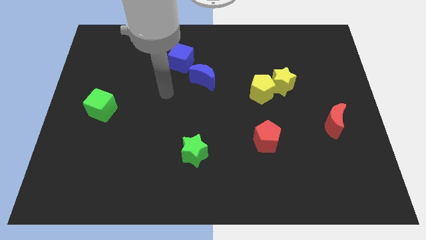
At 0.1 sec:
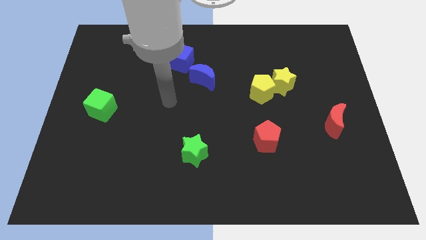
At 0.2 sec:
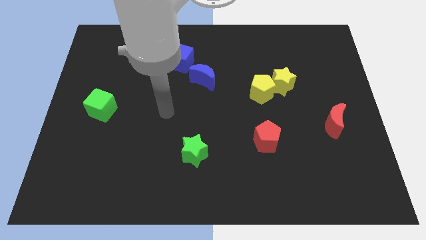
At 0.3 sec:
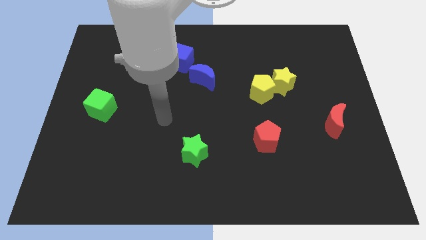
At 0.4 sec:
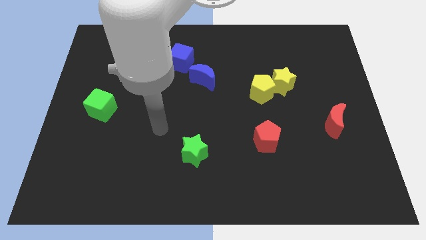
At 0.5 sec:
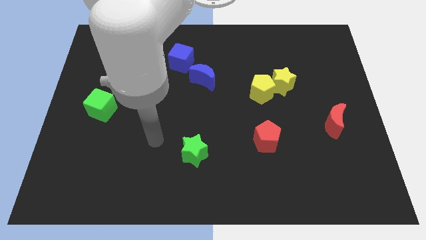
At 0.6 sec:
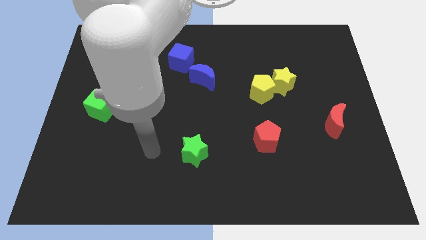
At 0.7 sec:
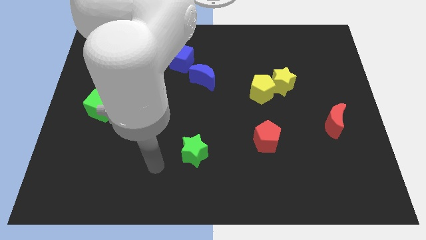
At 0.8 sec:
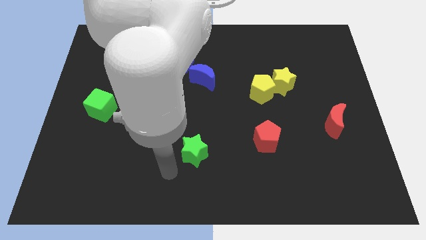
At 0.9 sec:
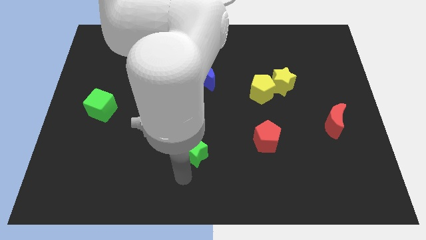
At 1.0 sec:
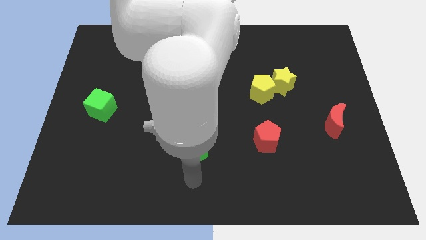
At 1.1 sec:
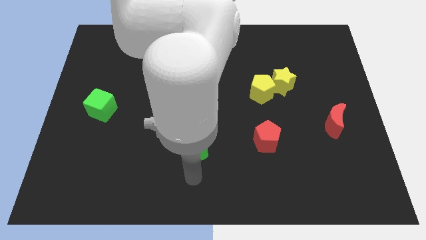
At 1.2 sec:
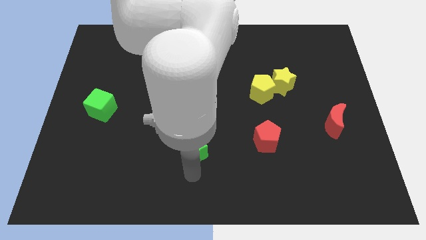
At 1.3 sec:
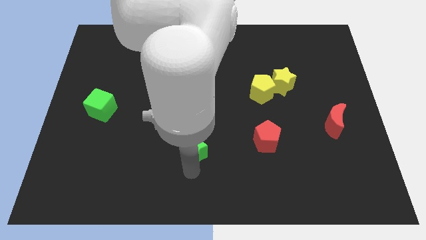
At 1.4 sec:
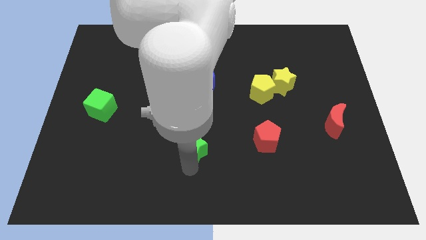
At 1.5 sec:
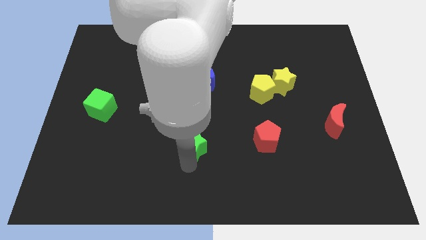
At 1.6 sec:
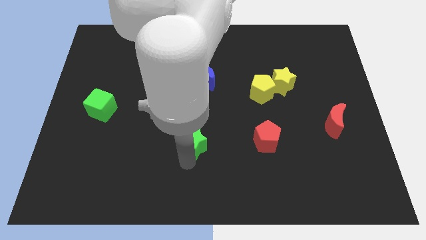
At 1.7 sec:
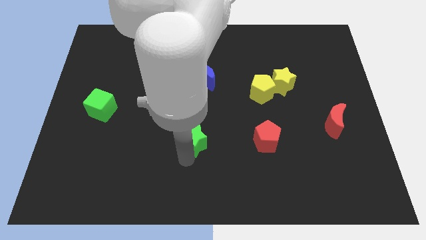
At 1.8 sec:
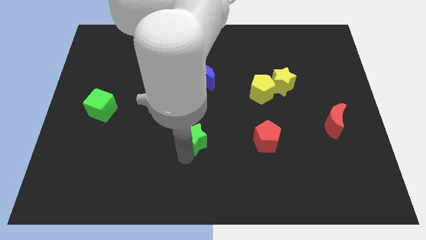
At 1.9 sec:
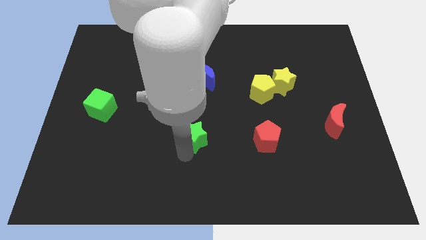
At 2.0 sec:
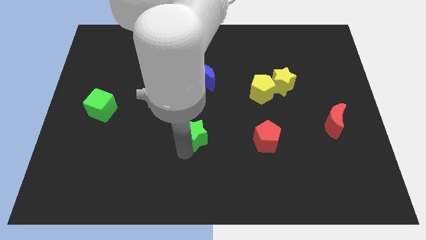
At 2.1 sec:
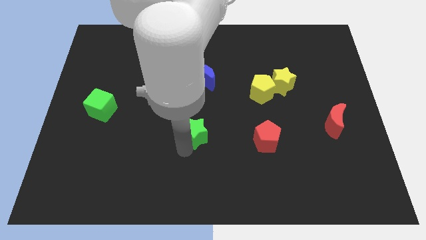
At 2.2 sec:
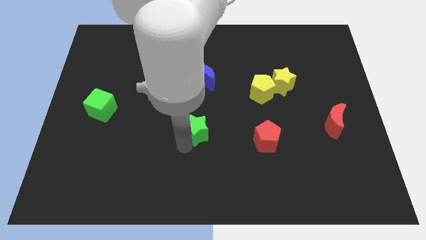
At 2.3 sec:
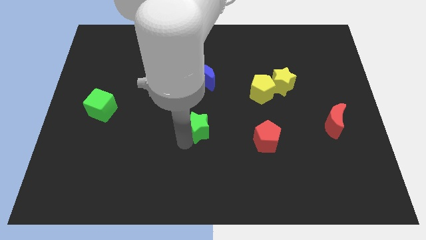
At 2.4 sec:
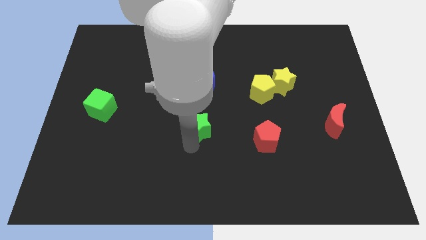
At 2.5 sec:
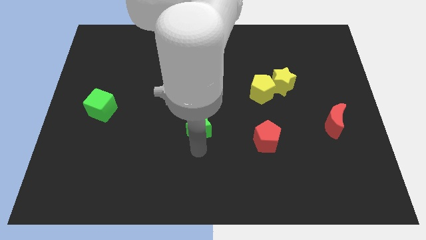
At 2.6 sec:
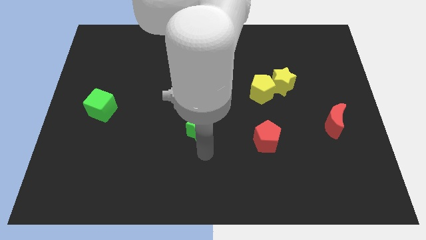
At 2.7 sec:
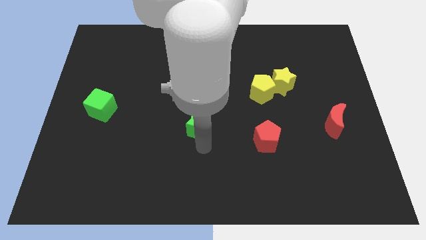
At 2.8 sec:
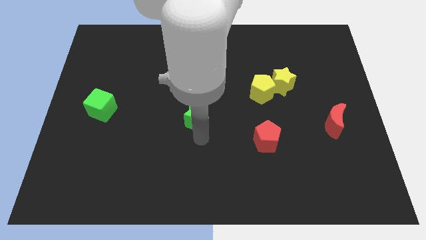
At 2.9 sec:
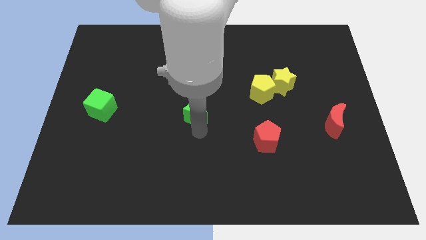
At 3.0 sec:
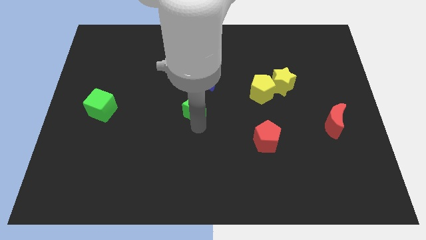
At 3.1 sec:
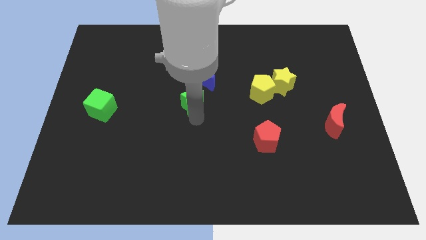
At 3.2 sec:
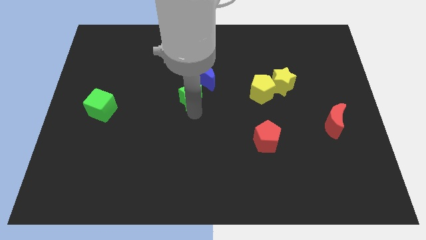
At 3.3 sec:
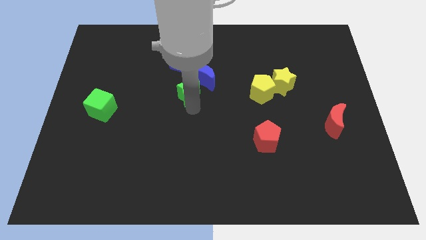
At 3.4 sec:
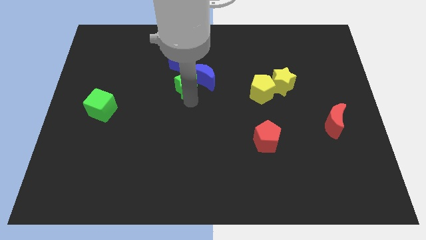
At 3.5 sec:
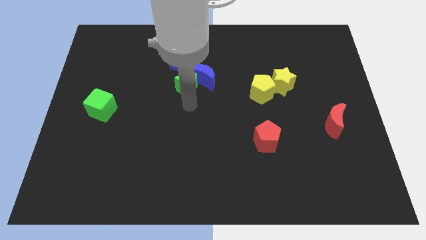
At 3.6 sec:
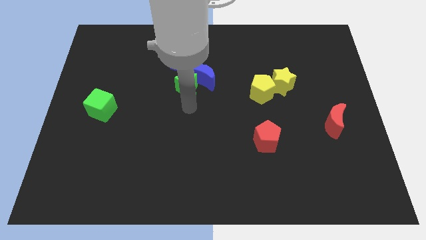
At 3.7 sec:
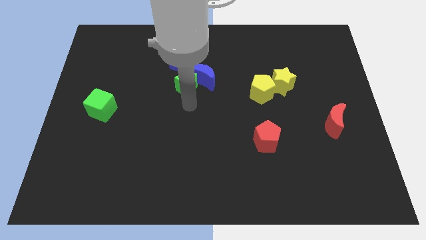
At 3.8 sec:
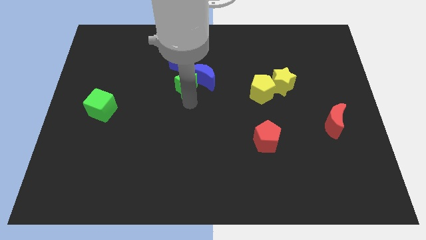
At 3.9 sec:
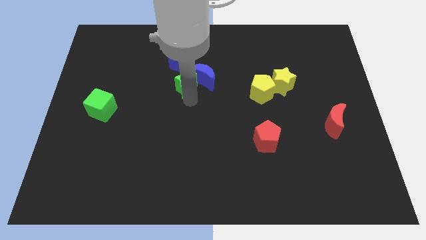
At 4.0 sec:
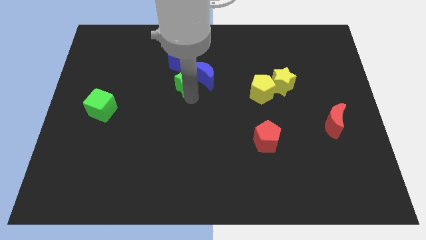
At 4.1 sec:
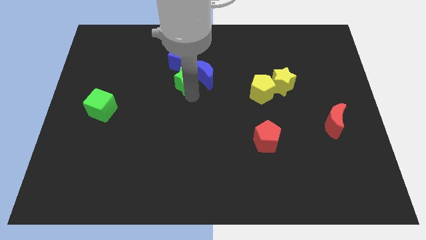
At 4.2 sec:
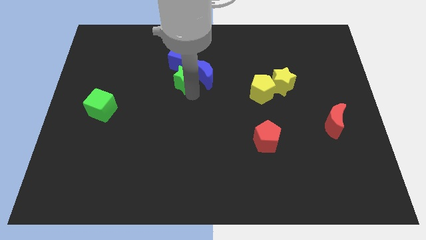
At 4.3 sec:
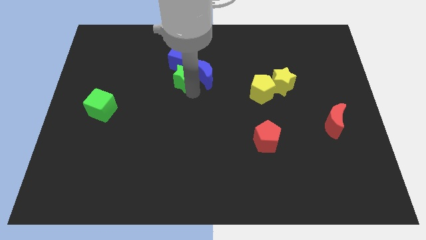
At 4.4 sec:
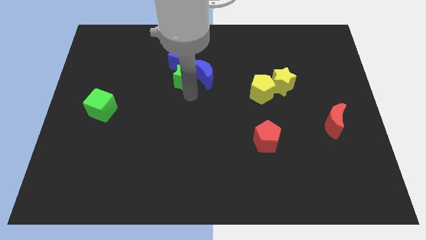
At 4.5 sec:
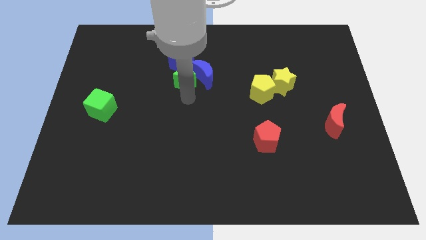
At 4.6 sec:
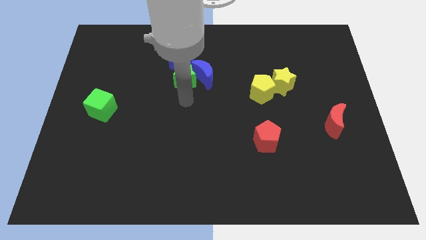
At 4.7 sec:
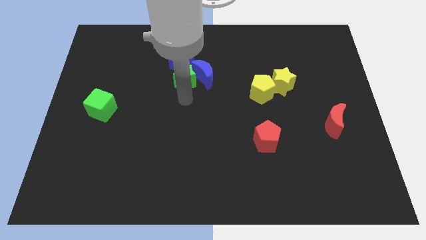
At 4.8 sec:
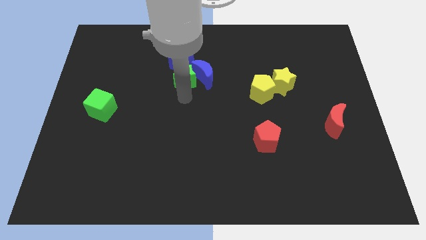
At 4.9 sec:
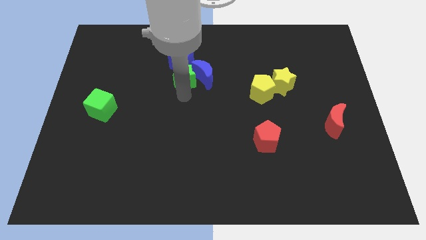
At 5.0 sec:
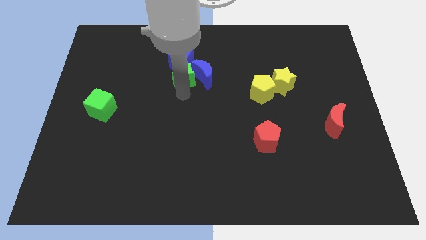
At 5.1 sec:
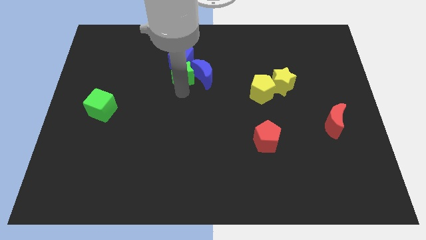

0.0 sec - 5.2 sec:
put the green star towards the blue cube

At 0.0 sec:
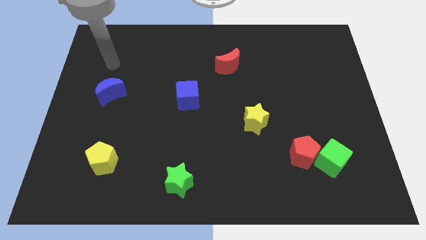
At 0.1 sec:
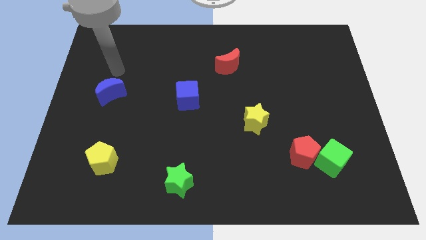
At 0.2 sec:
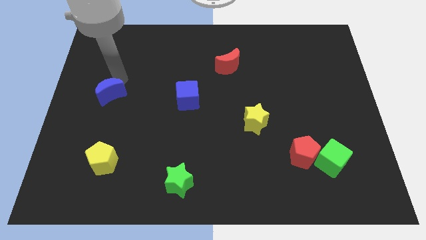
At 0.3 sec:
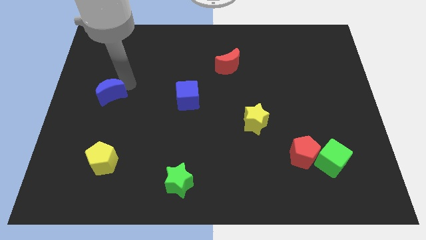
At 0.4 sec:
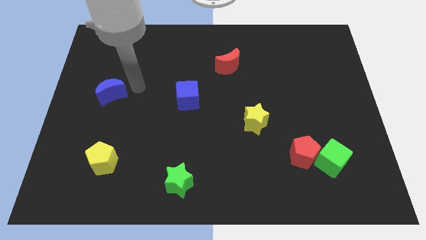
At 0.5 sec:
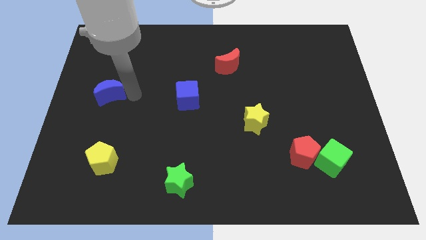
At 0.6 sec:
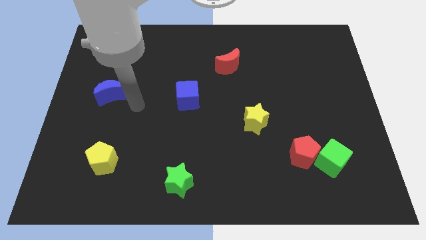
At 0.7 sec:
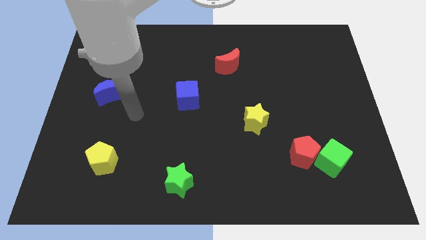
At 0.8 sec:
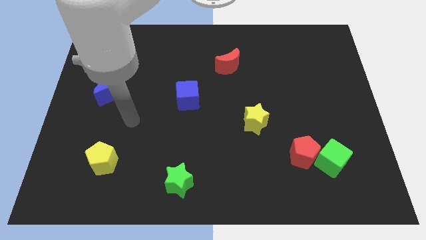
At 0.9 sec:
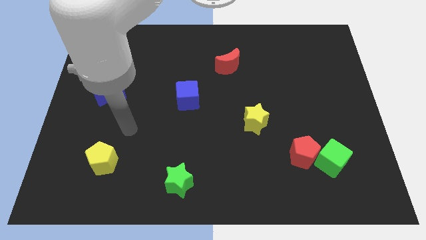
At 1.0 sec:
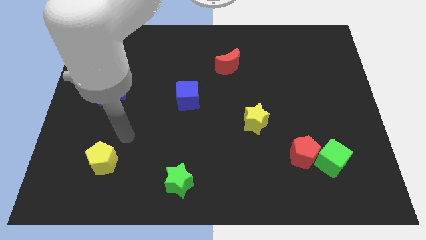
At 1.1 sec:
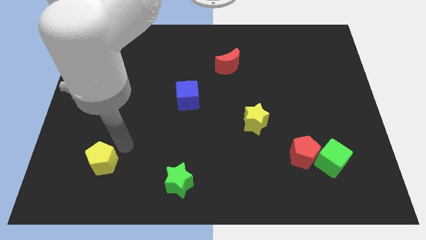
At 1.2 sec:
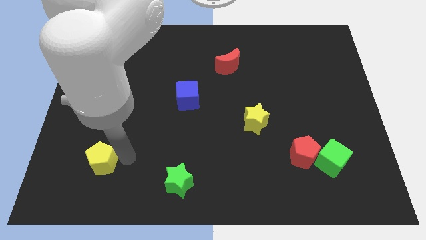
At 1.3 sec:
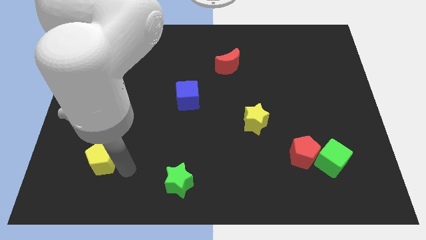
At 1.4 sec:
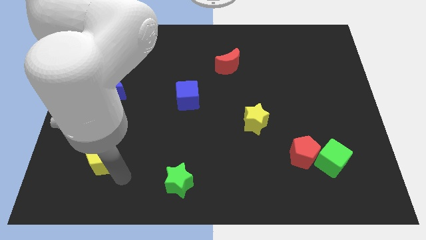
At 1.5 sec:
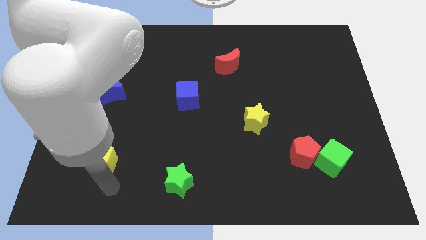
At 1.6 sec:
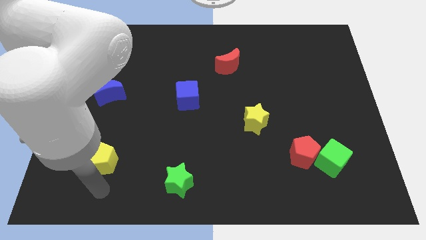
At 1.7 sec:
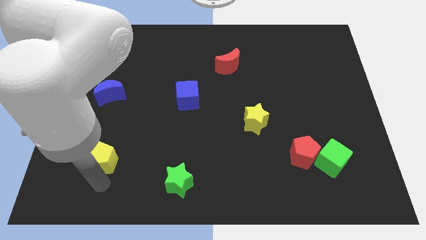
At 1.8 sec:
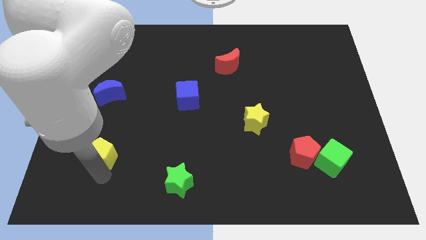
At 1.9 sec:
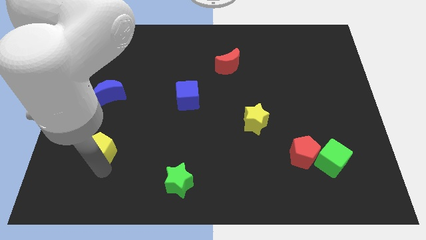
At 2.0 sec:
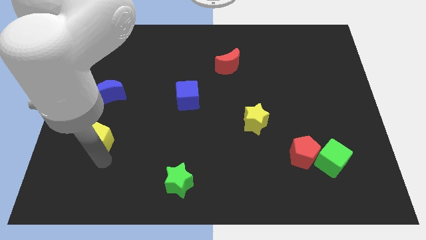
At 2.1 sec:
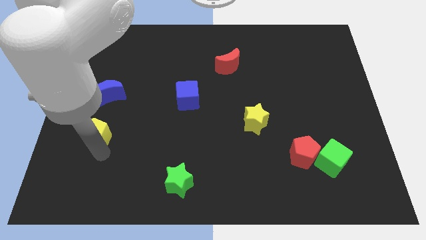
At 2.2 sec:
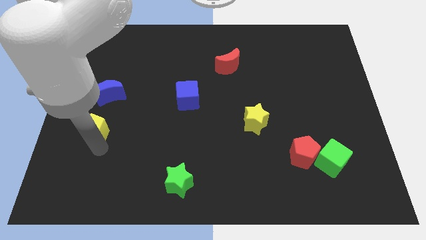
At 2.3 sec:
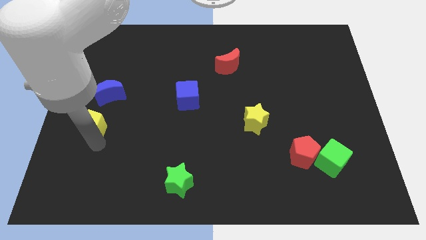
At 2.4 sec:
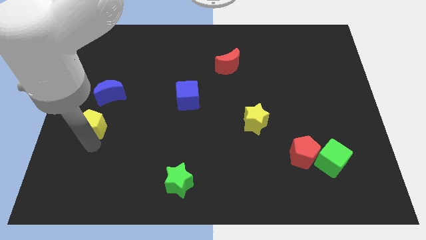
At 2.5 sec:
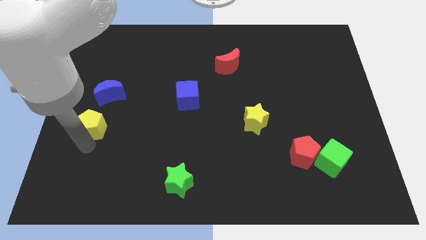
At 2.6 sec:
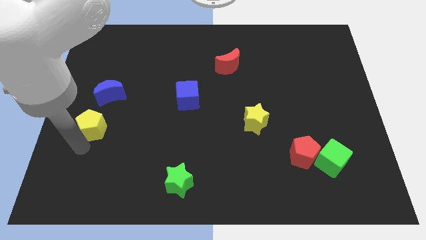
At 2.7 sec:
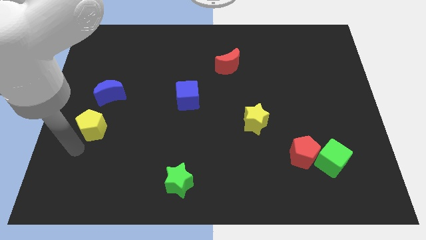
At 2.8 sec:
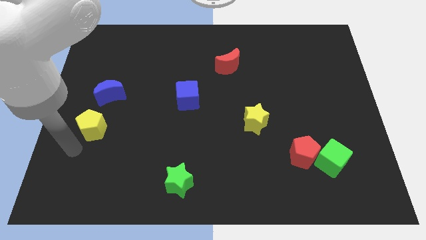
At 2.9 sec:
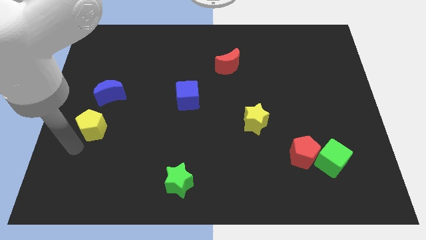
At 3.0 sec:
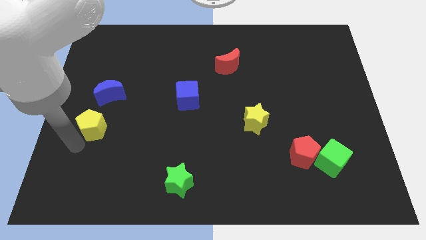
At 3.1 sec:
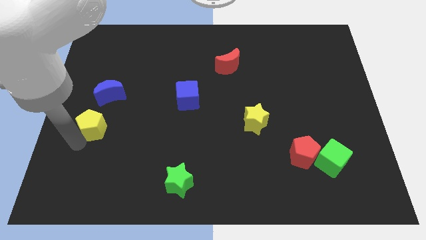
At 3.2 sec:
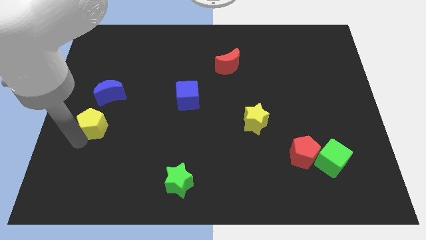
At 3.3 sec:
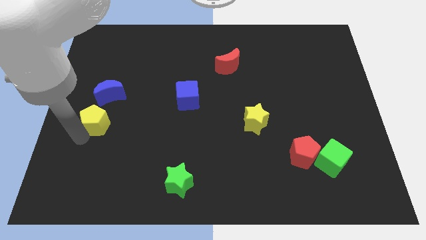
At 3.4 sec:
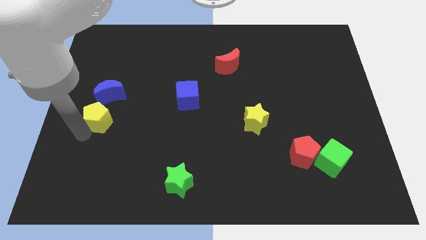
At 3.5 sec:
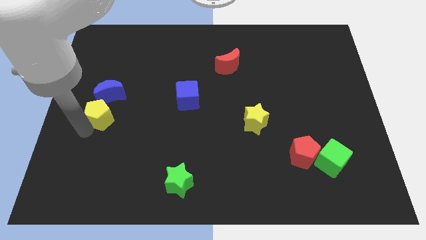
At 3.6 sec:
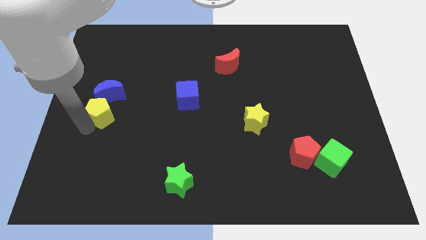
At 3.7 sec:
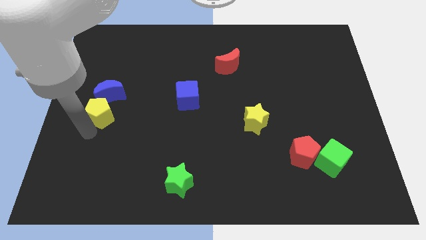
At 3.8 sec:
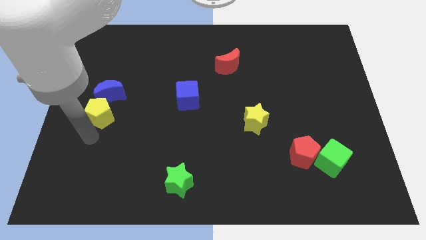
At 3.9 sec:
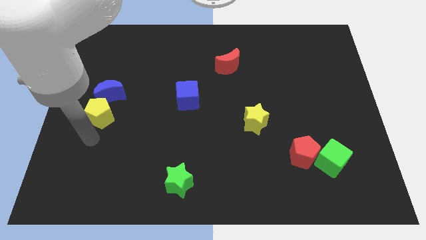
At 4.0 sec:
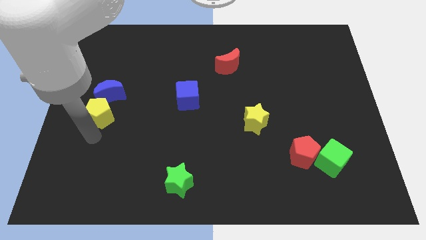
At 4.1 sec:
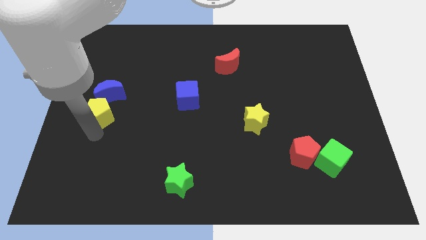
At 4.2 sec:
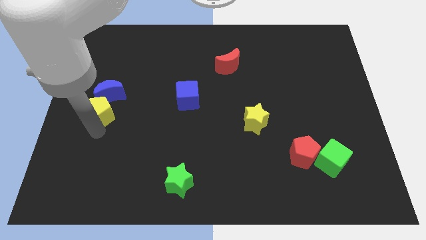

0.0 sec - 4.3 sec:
put the yellow pentagon next to the blue moon
